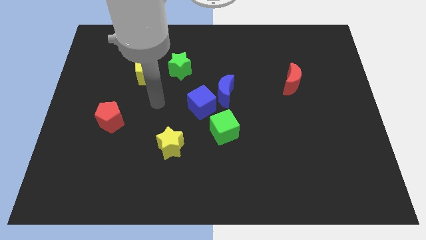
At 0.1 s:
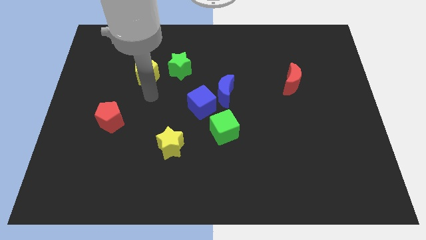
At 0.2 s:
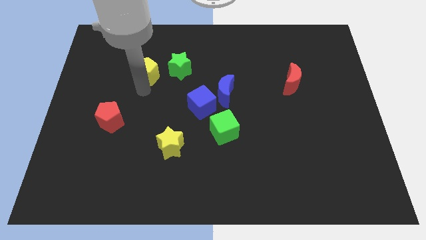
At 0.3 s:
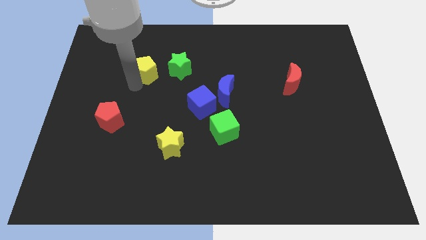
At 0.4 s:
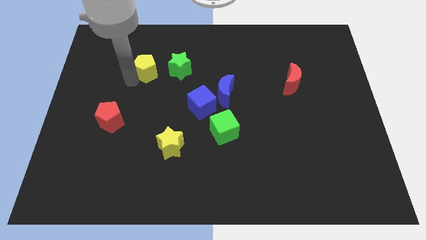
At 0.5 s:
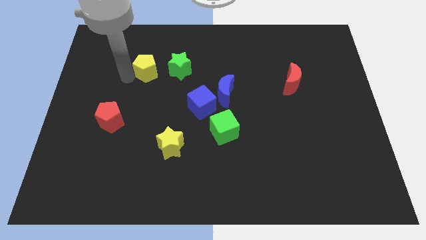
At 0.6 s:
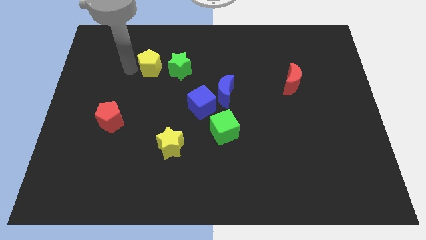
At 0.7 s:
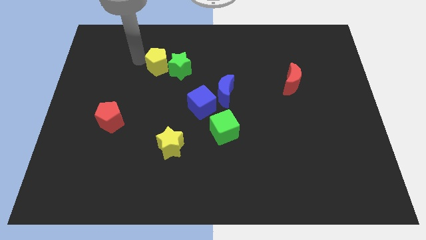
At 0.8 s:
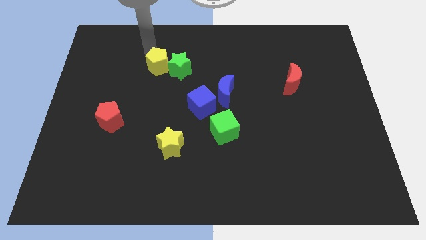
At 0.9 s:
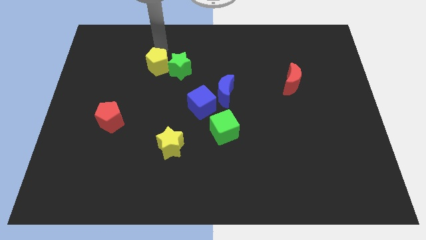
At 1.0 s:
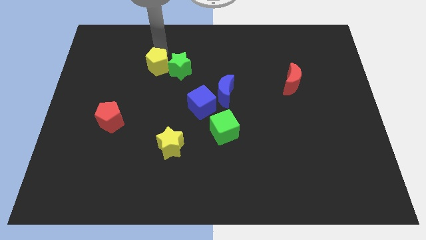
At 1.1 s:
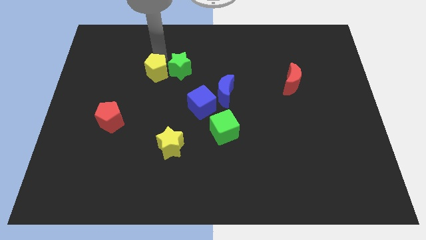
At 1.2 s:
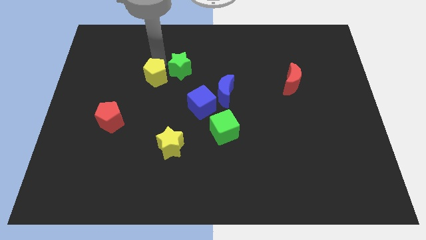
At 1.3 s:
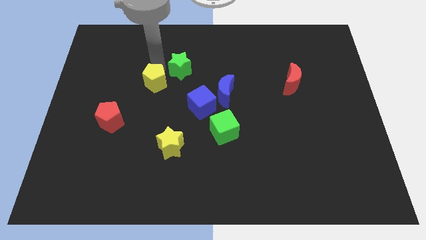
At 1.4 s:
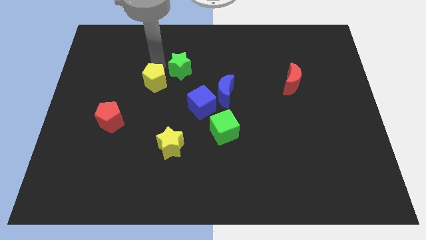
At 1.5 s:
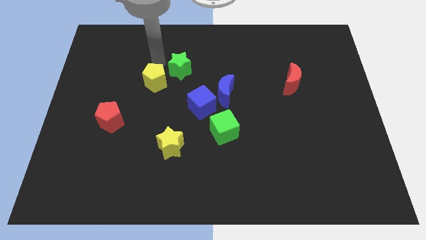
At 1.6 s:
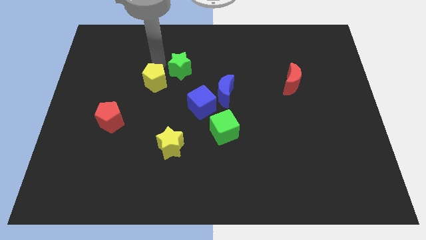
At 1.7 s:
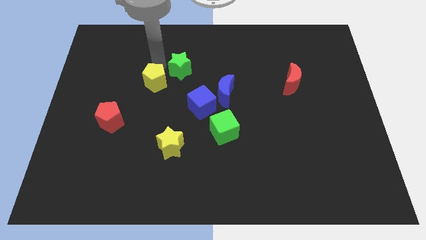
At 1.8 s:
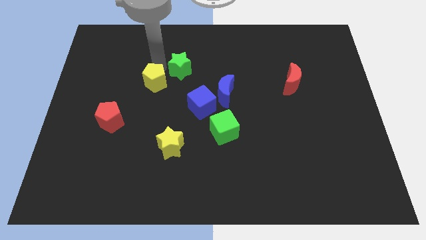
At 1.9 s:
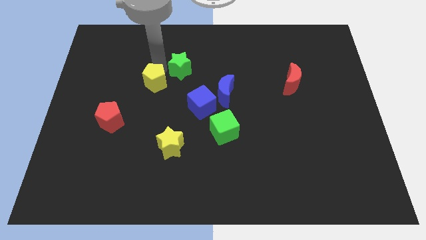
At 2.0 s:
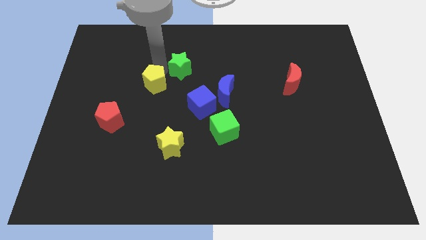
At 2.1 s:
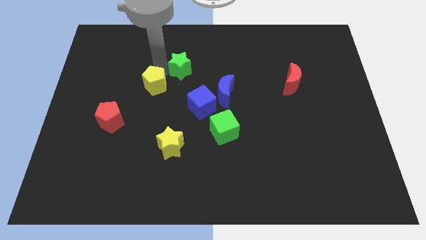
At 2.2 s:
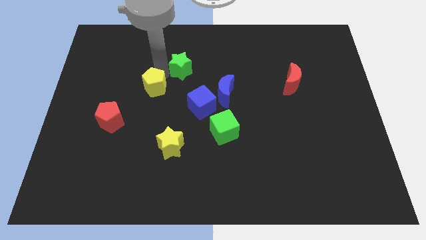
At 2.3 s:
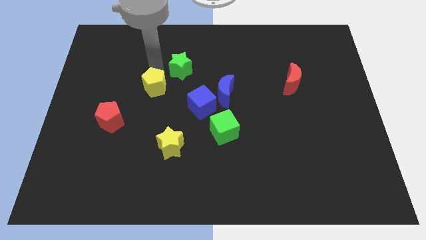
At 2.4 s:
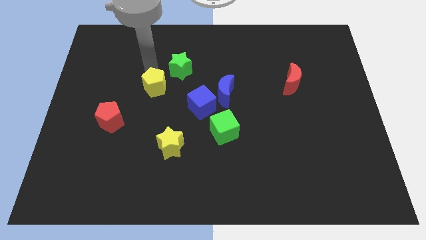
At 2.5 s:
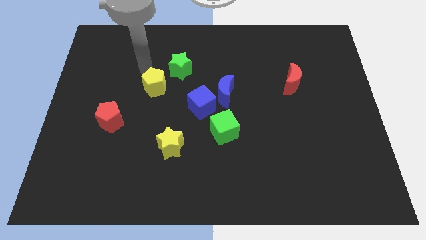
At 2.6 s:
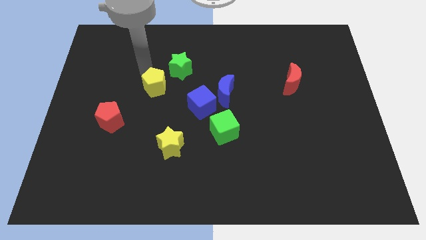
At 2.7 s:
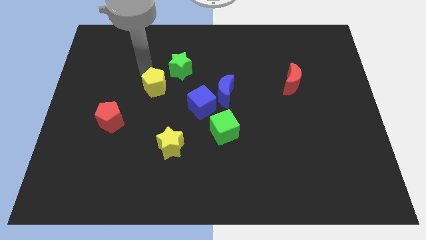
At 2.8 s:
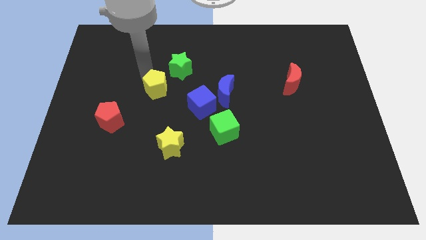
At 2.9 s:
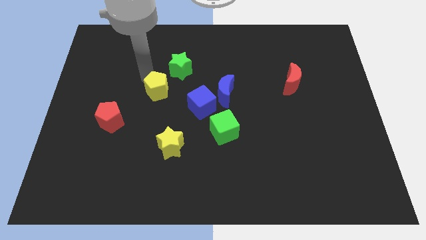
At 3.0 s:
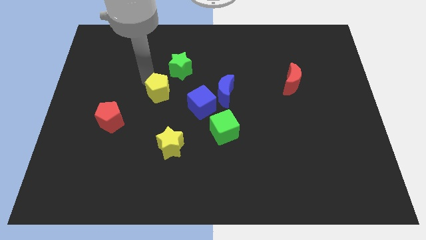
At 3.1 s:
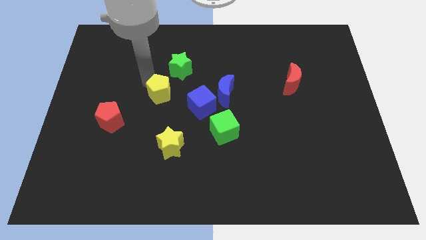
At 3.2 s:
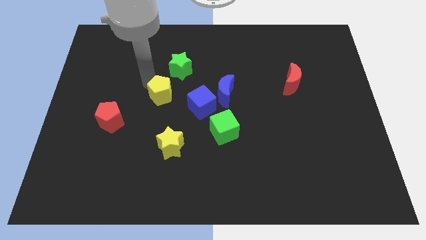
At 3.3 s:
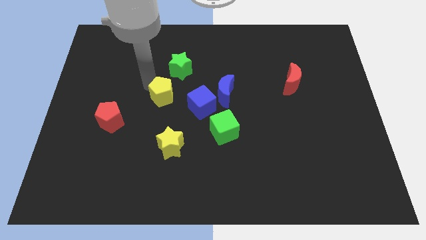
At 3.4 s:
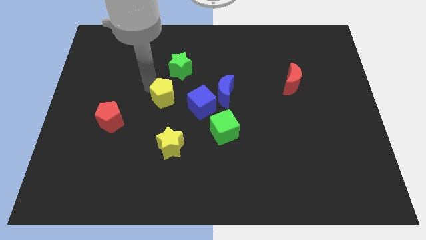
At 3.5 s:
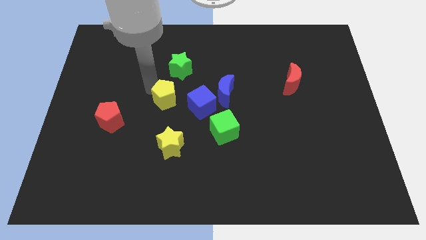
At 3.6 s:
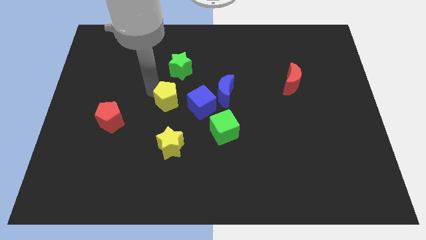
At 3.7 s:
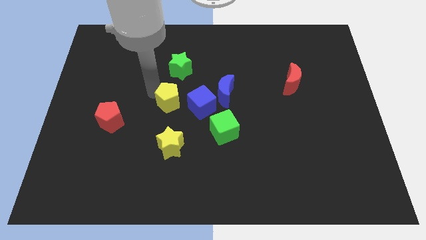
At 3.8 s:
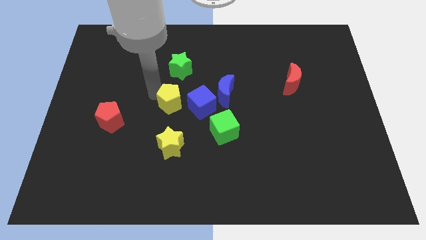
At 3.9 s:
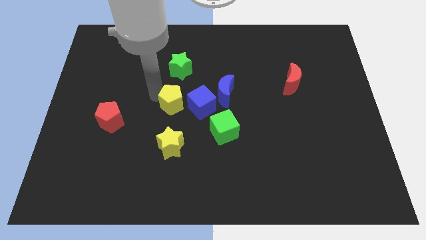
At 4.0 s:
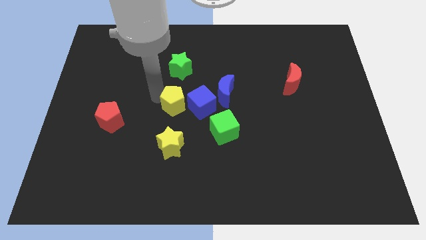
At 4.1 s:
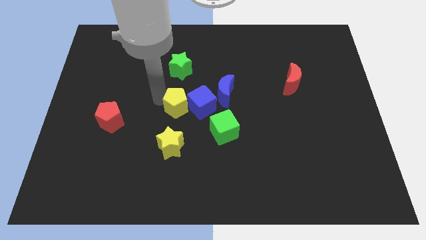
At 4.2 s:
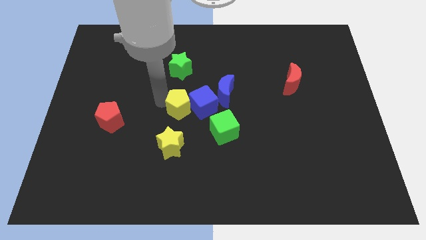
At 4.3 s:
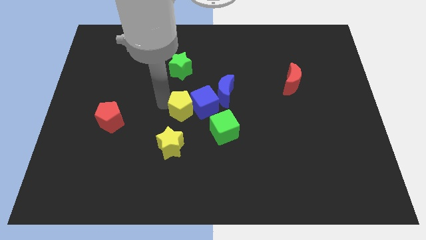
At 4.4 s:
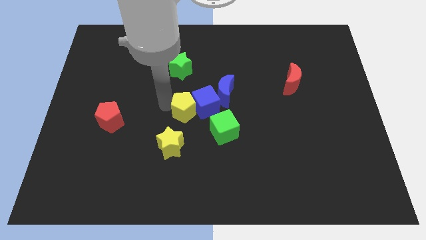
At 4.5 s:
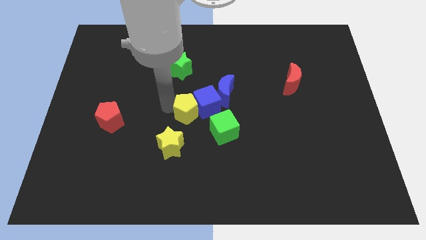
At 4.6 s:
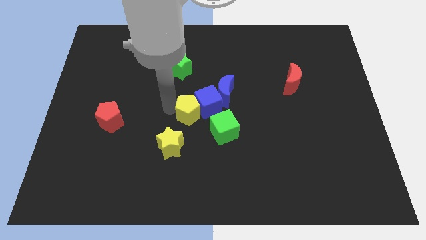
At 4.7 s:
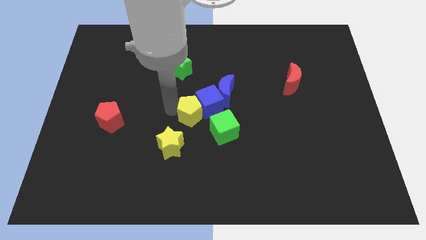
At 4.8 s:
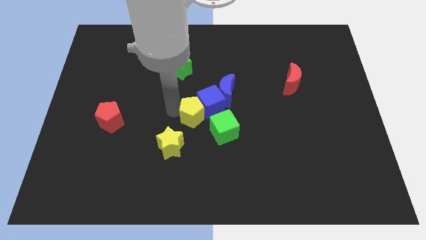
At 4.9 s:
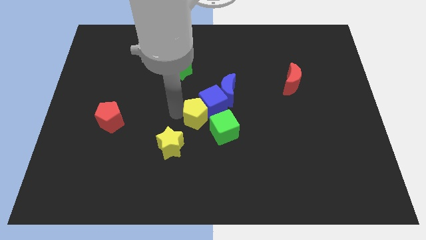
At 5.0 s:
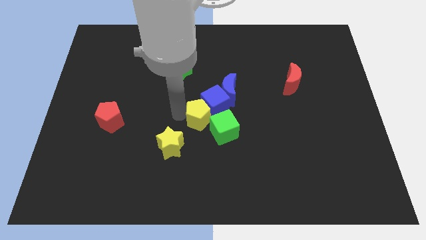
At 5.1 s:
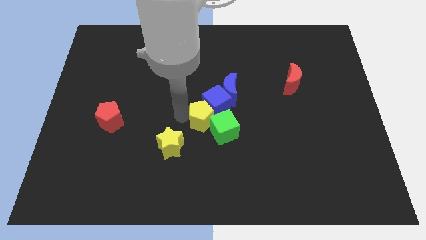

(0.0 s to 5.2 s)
move the yellow pentagon to the green cube

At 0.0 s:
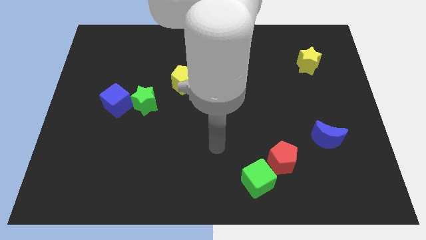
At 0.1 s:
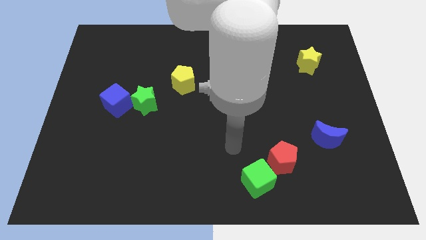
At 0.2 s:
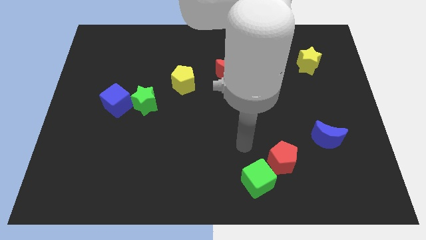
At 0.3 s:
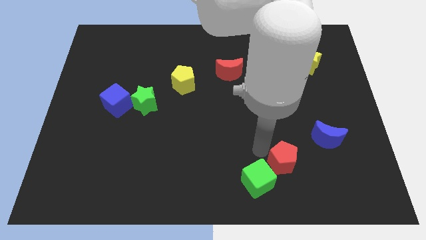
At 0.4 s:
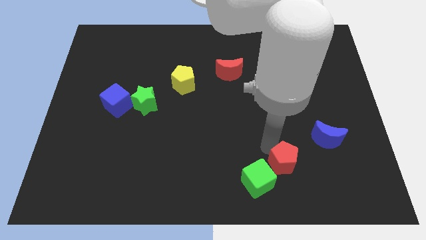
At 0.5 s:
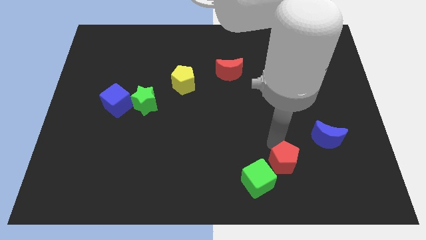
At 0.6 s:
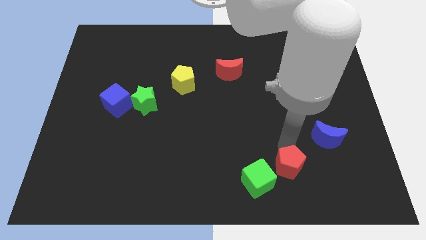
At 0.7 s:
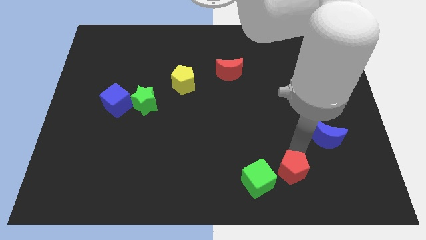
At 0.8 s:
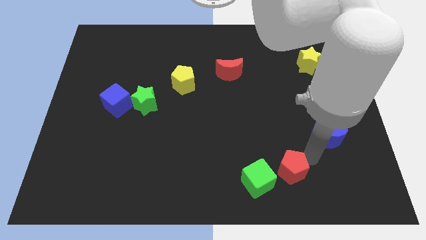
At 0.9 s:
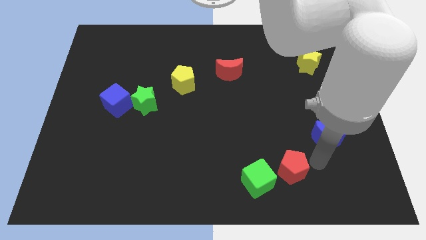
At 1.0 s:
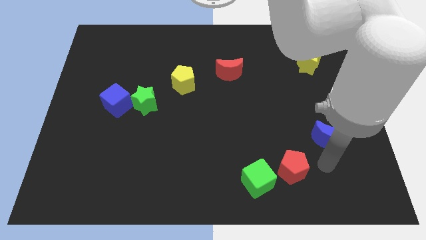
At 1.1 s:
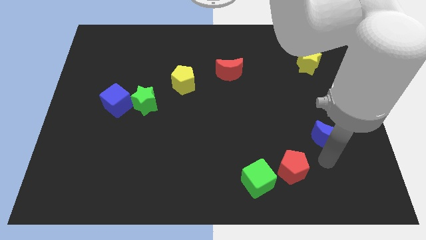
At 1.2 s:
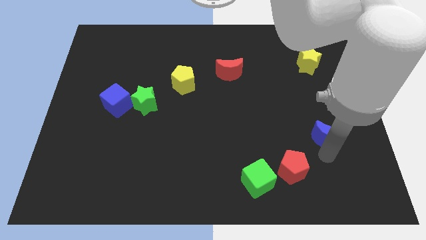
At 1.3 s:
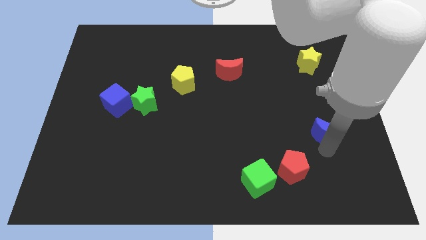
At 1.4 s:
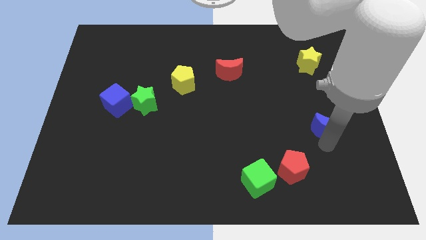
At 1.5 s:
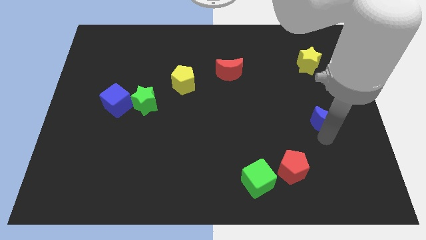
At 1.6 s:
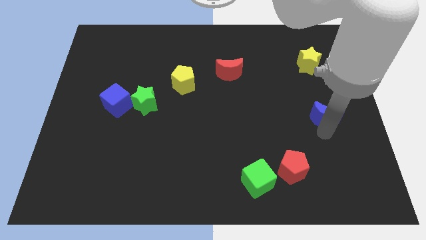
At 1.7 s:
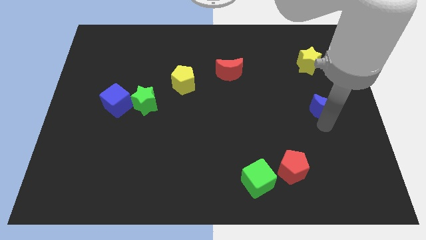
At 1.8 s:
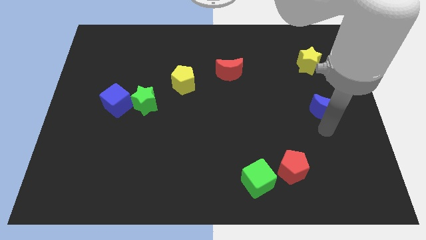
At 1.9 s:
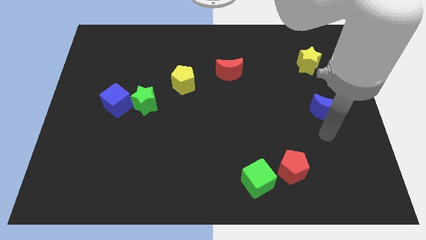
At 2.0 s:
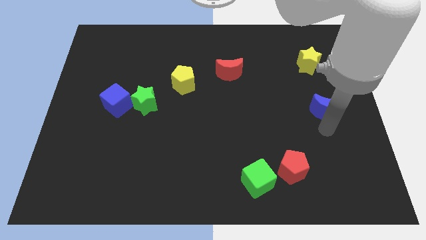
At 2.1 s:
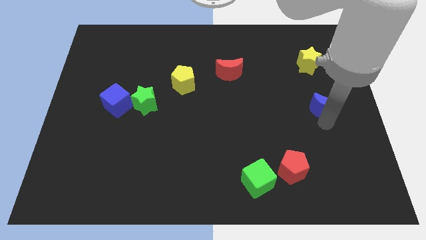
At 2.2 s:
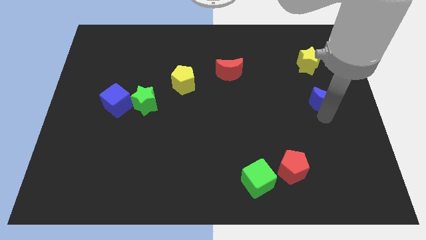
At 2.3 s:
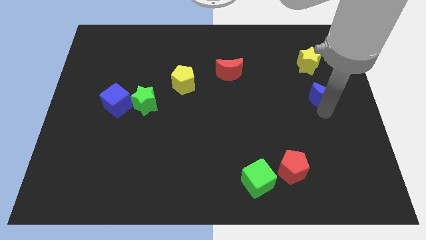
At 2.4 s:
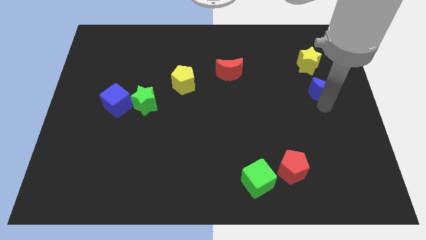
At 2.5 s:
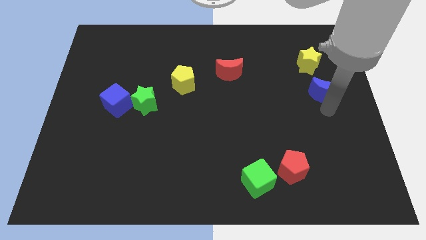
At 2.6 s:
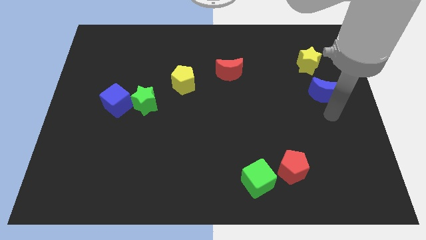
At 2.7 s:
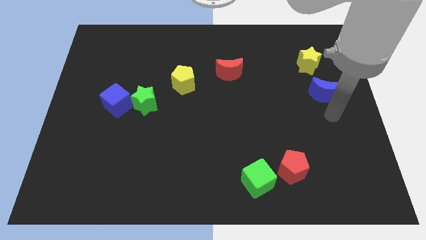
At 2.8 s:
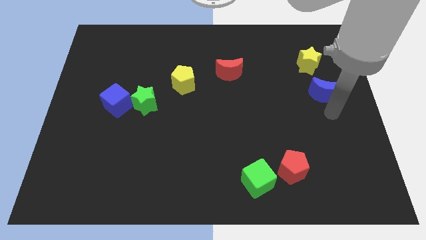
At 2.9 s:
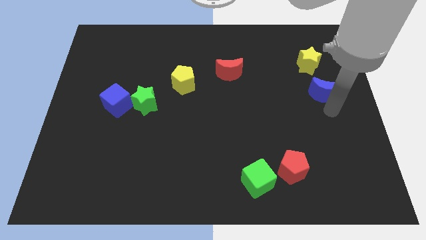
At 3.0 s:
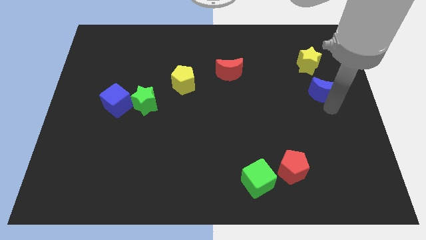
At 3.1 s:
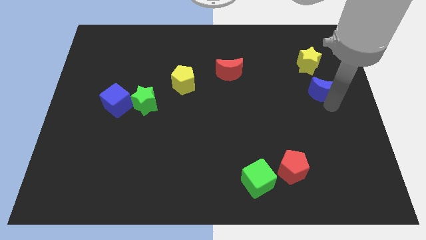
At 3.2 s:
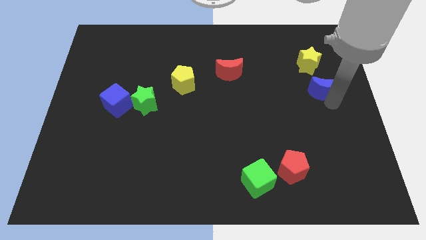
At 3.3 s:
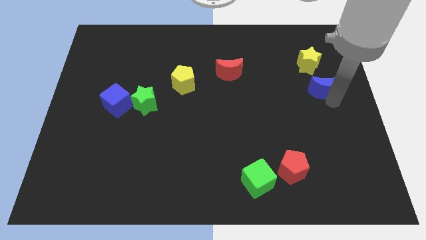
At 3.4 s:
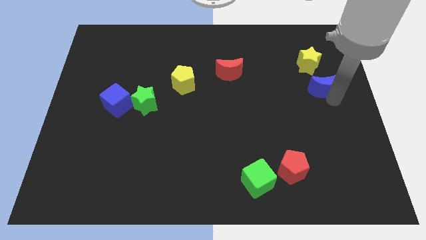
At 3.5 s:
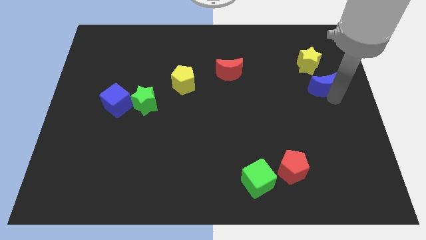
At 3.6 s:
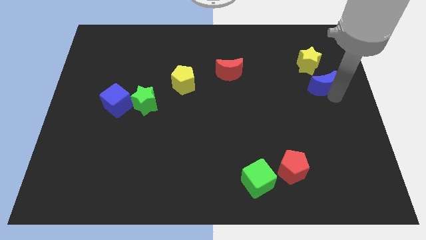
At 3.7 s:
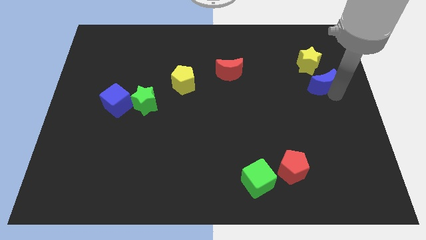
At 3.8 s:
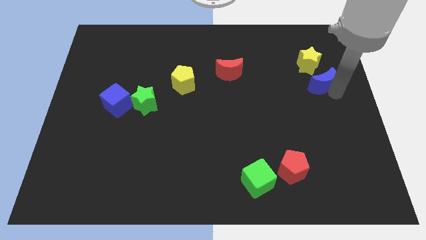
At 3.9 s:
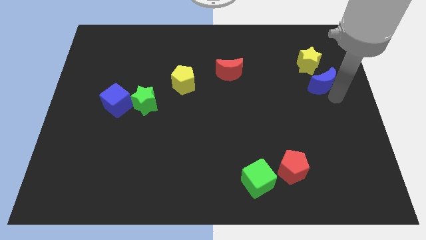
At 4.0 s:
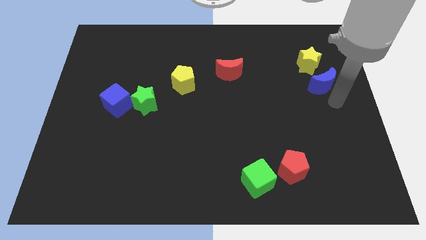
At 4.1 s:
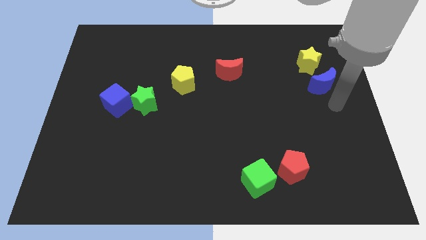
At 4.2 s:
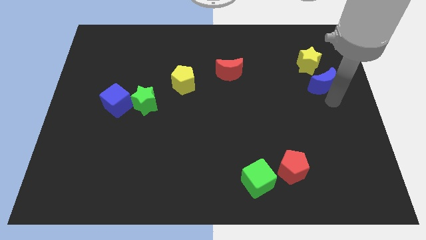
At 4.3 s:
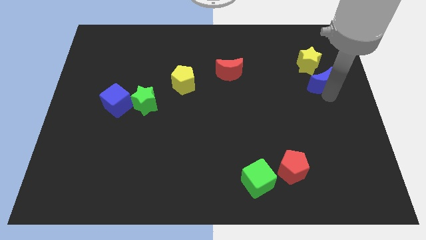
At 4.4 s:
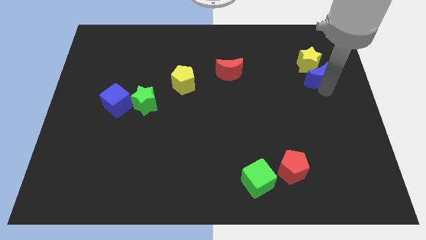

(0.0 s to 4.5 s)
put the blue moon next to the yellow star
